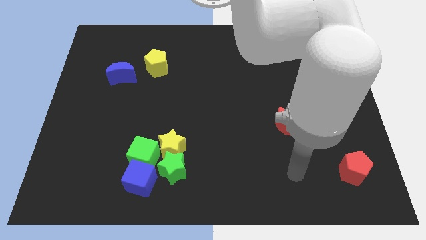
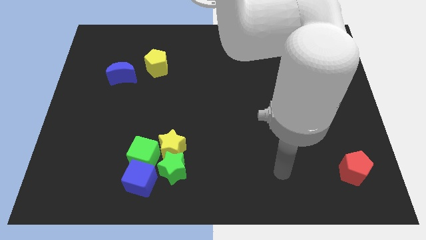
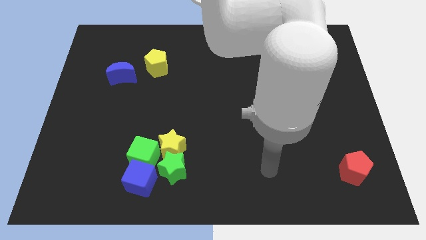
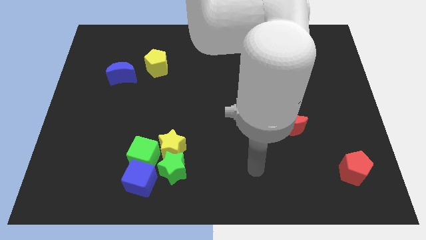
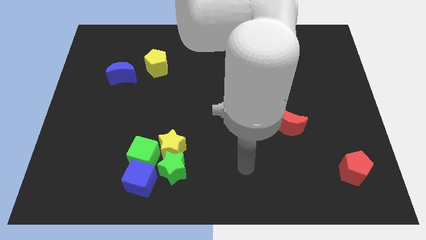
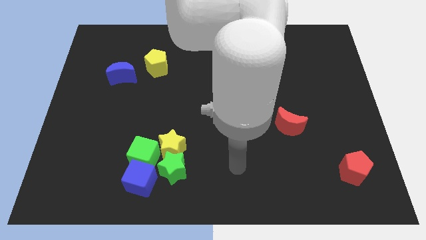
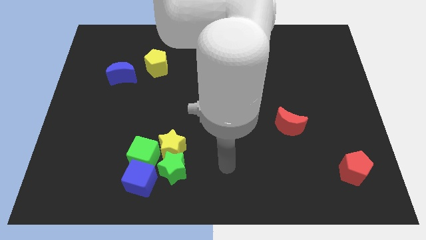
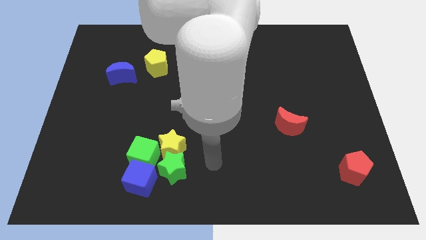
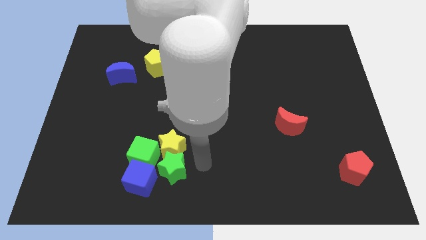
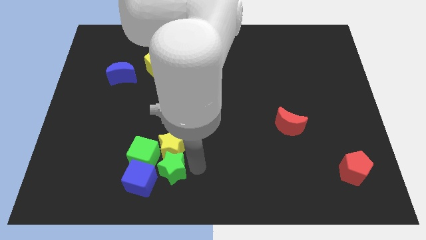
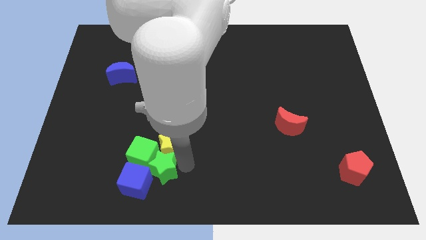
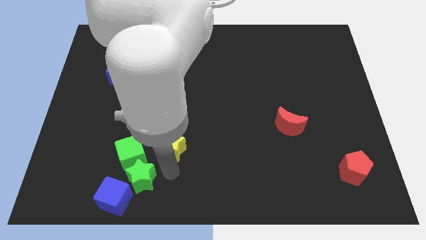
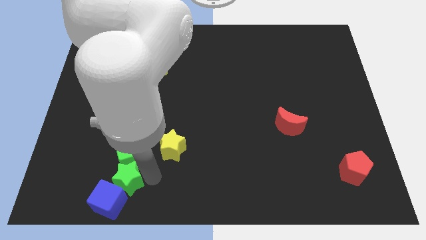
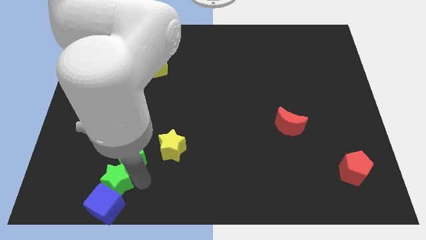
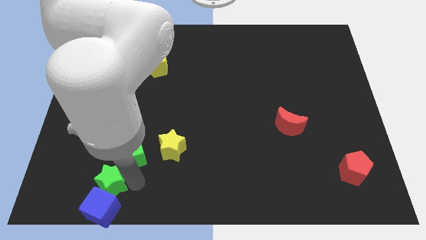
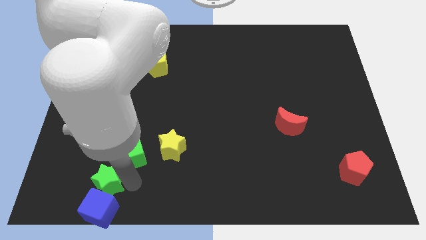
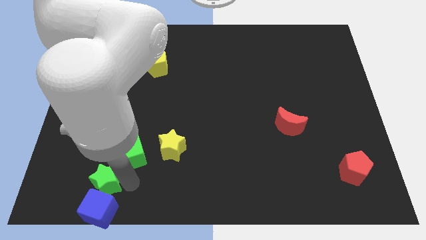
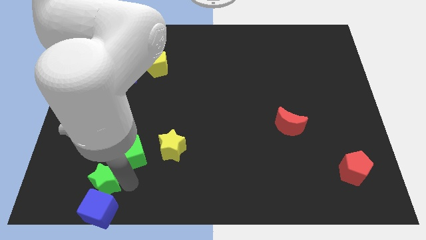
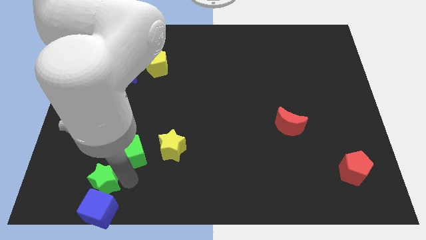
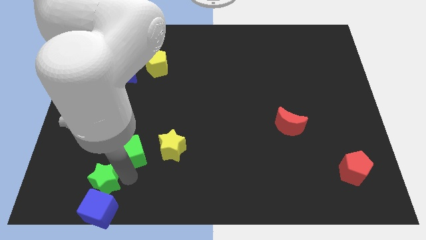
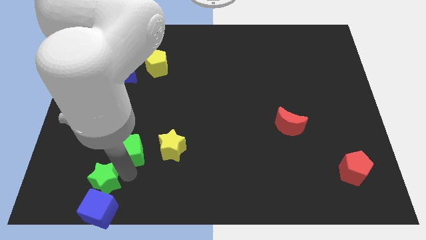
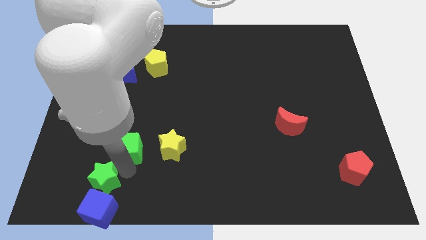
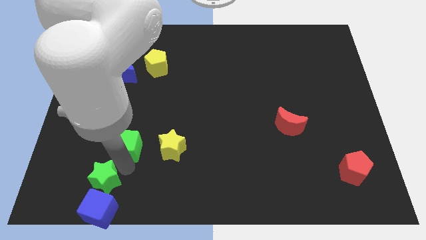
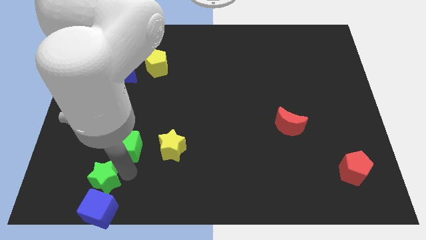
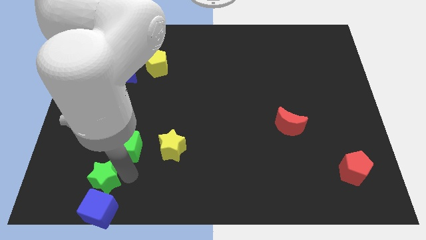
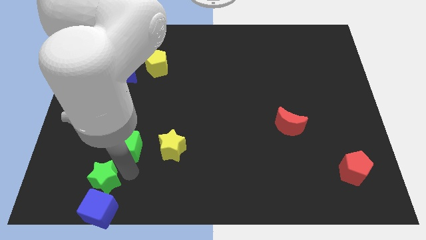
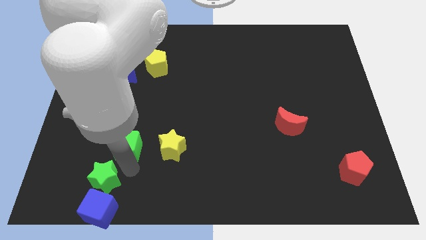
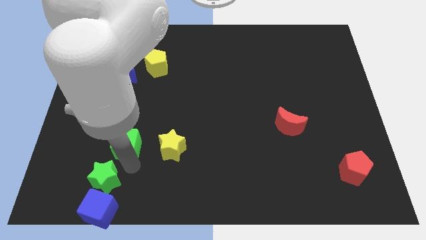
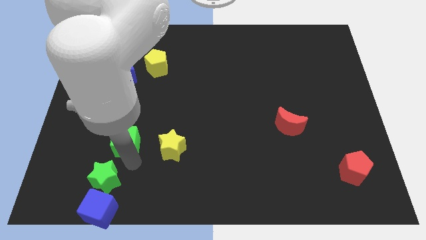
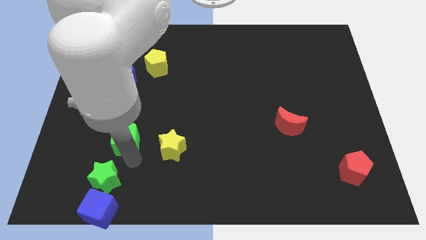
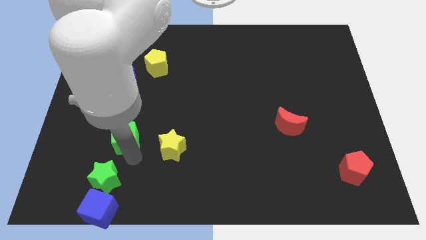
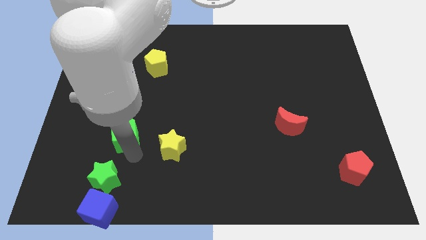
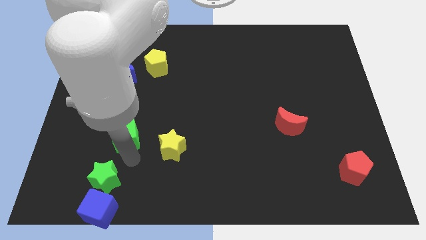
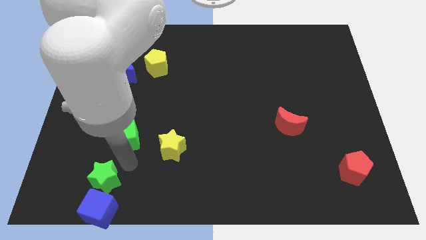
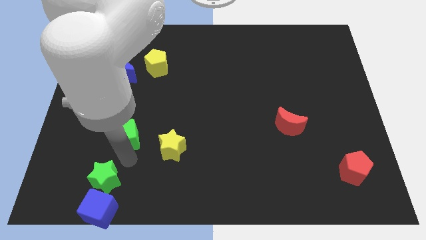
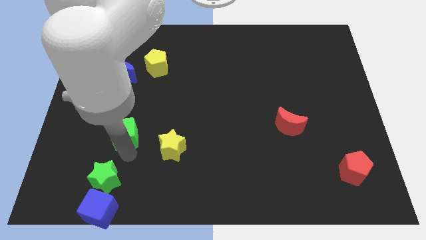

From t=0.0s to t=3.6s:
move the green cube away from the blue cube, yellow star, and green star

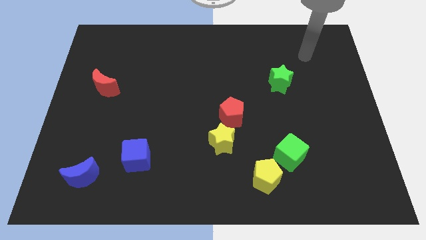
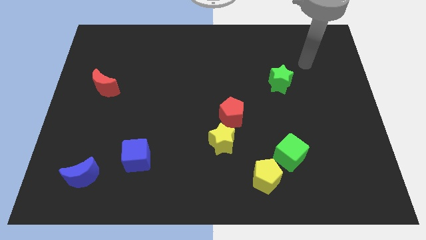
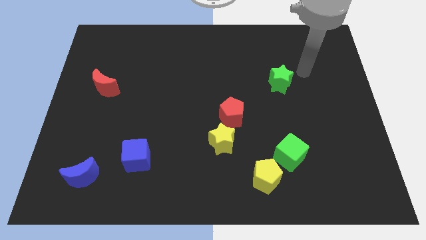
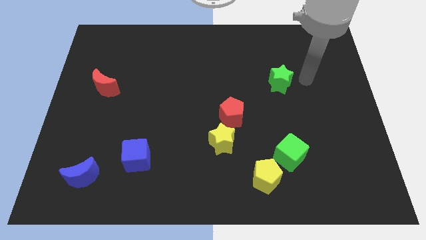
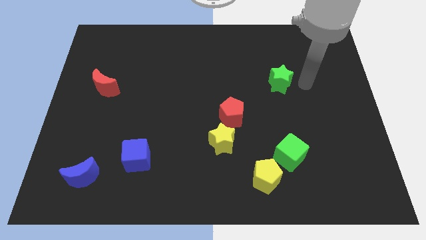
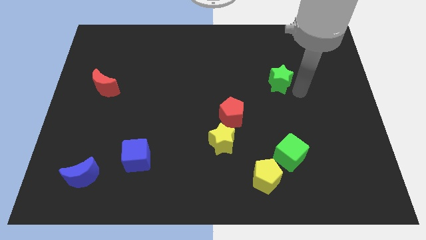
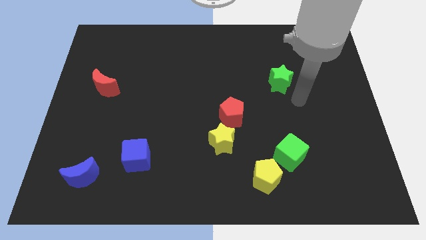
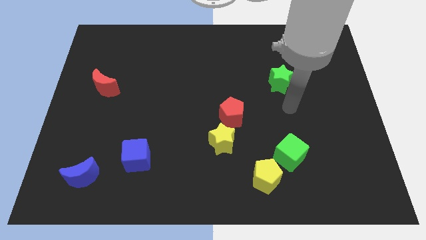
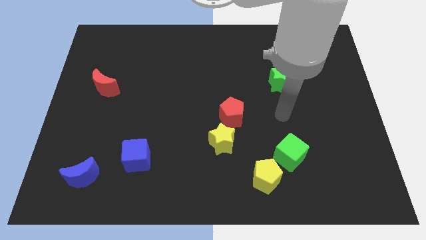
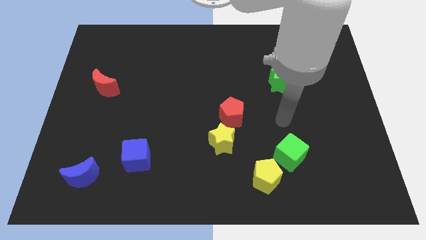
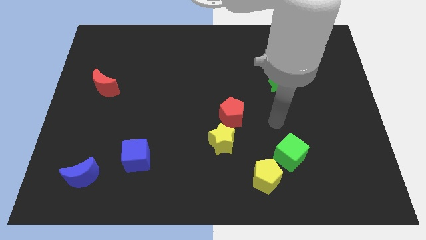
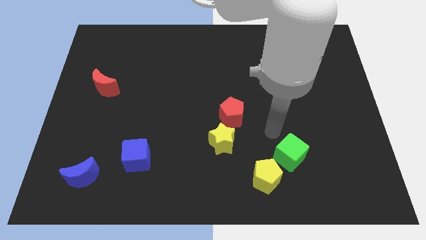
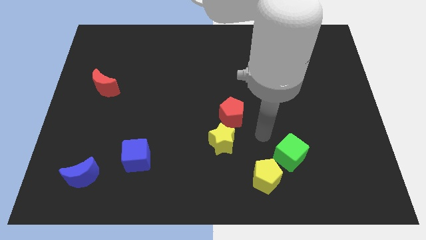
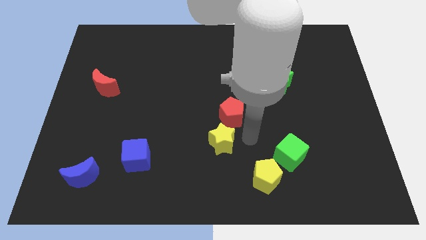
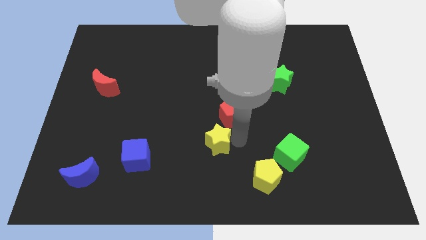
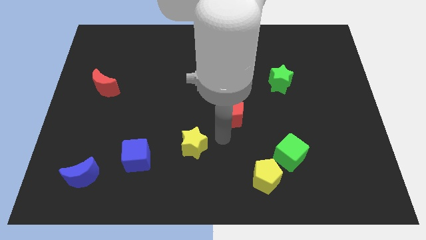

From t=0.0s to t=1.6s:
move the red pentagon away from the yellow star

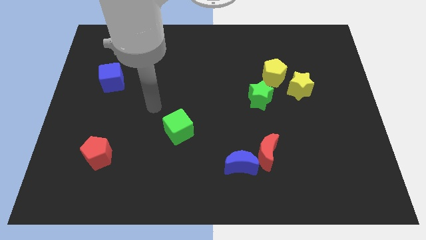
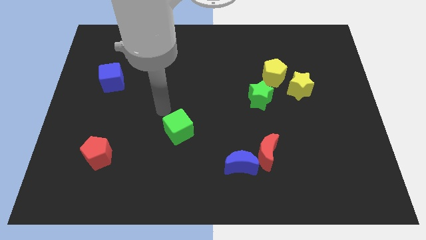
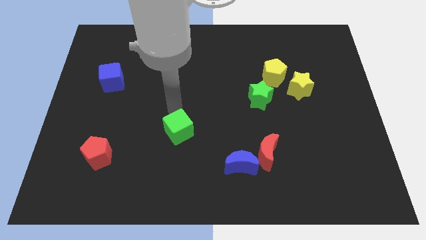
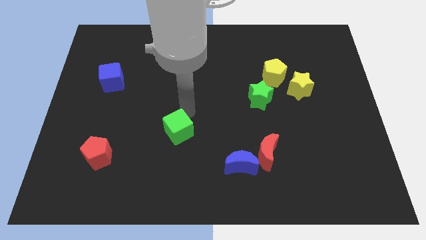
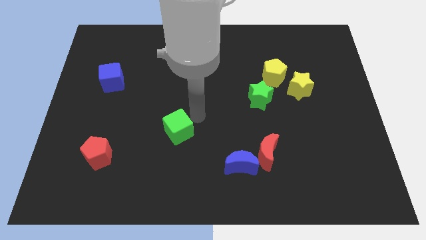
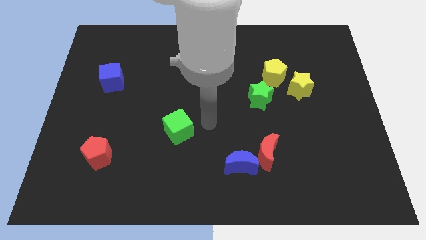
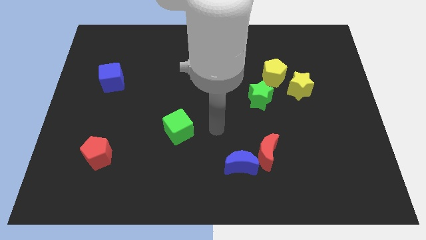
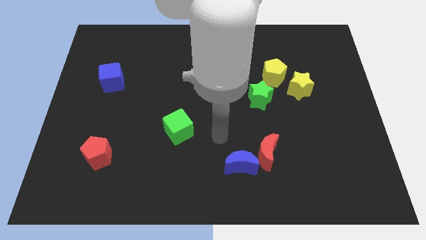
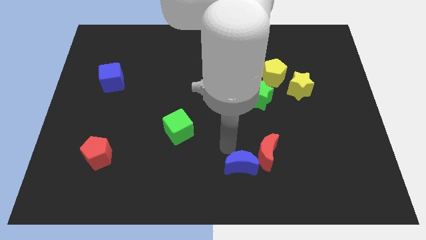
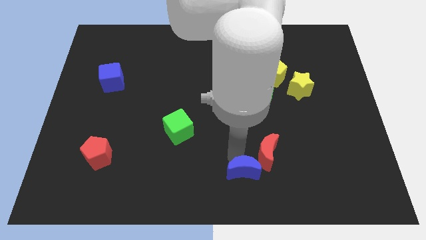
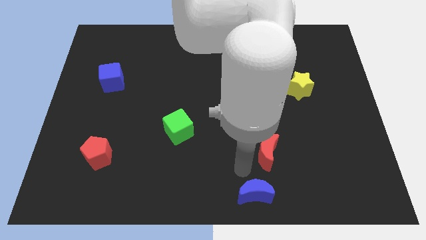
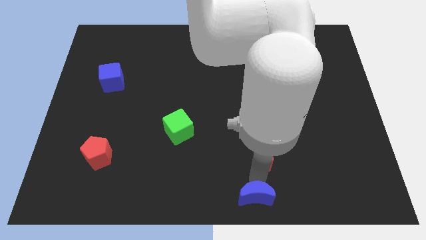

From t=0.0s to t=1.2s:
move the red moon away from the blue moon

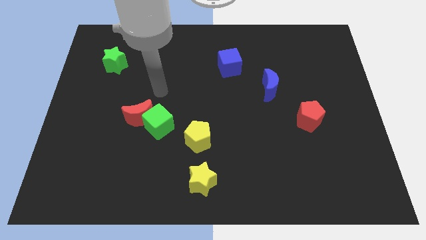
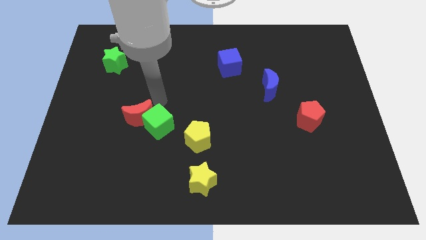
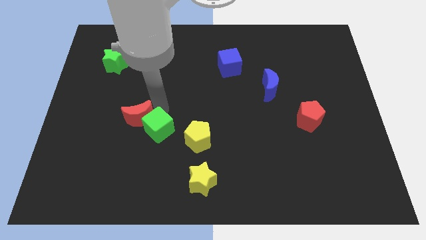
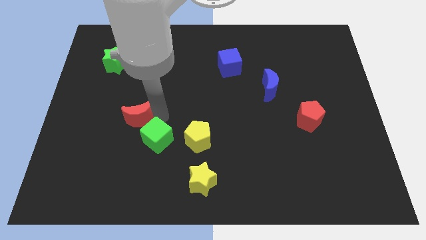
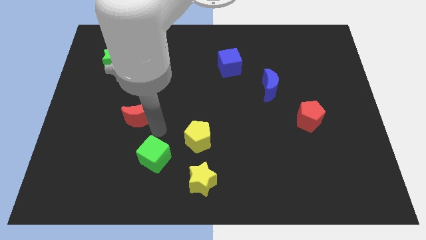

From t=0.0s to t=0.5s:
pull the red moon apart from the green cube

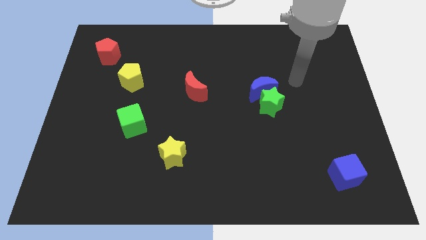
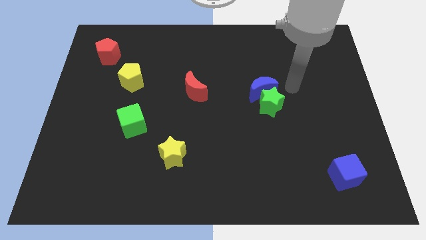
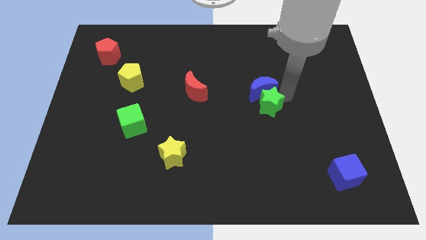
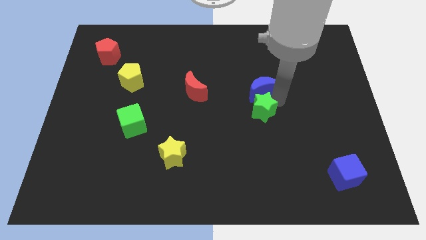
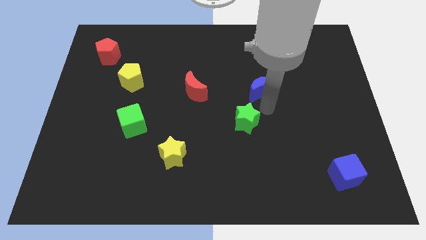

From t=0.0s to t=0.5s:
pull the blue moon apart from the green star

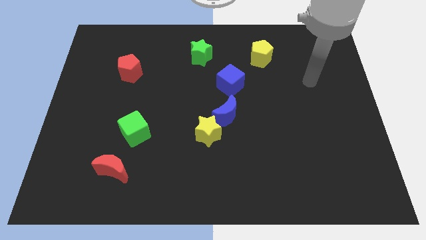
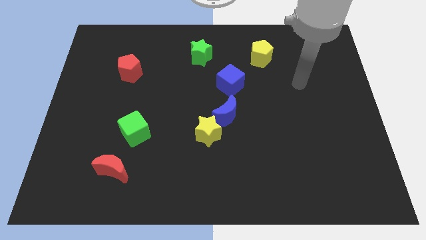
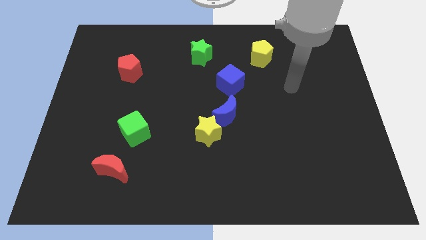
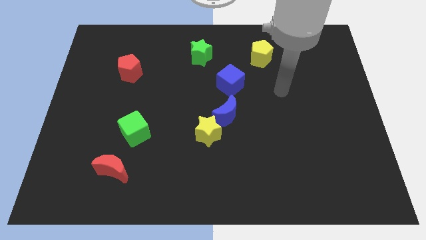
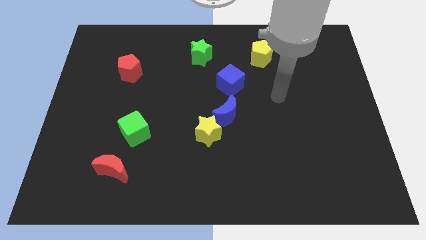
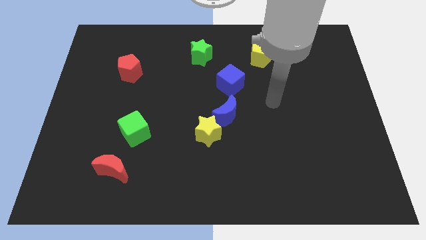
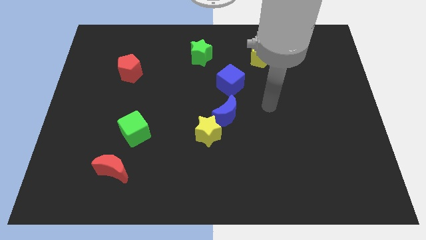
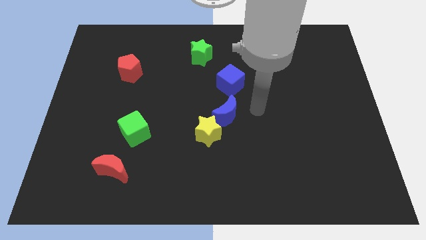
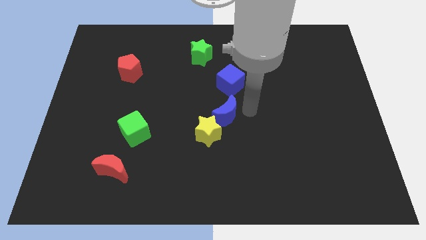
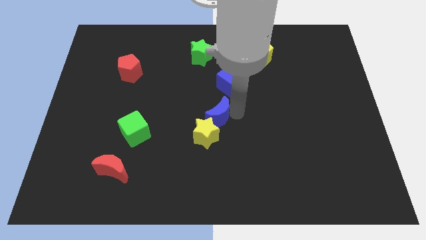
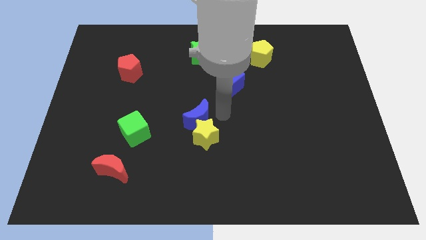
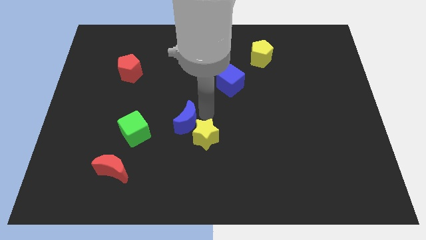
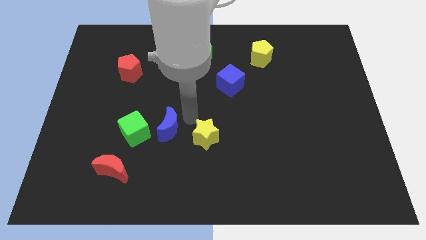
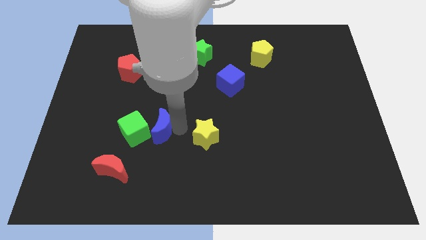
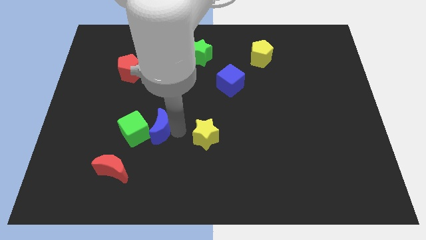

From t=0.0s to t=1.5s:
move the yellow star away from the blue moon

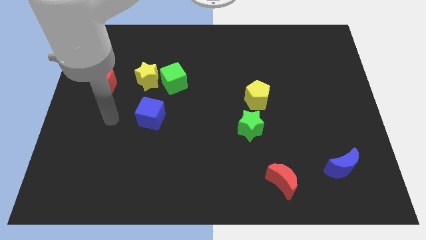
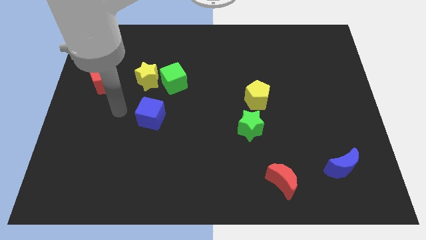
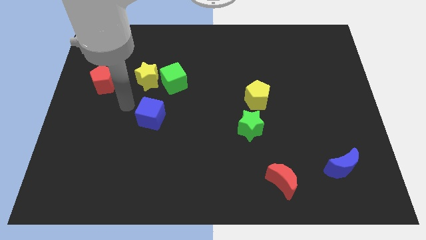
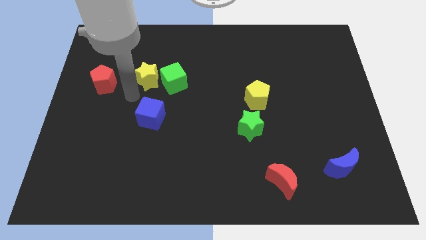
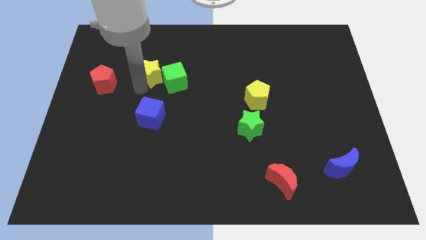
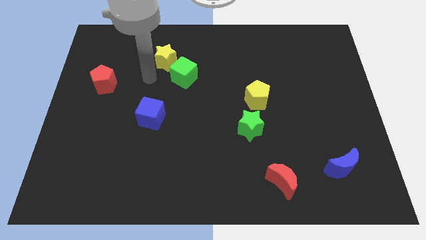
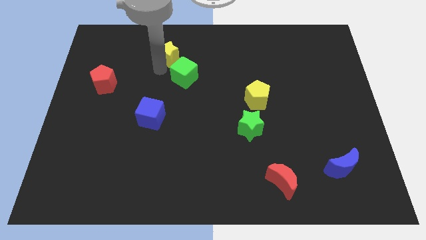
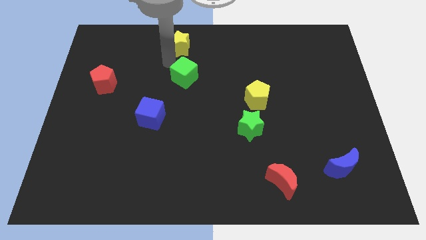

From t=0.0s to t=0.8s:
separate the green cube from the yellow star
